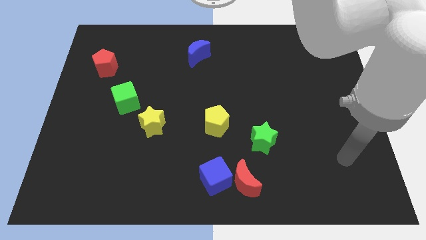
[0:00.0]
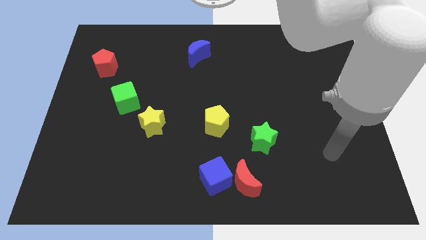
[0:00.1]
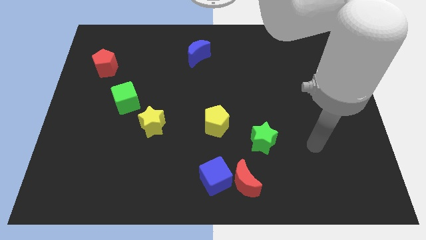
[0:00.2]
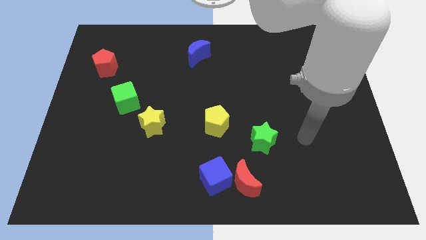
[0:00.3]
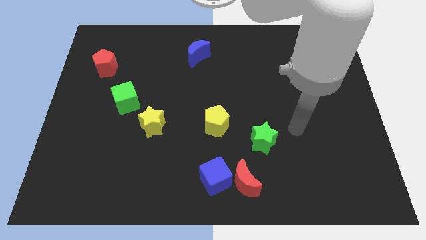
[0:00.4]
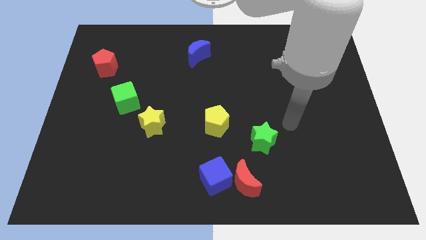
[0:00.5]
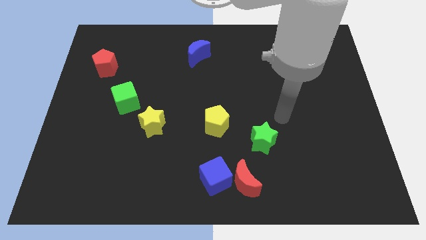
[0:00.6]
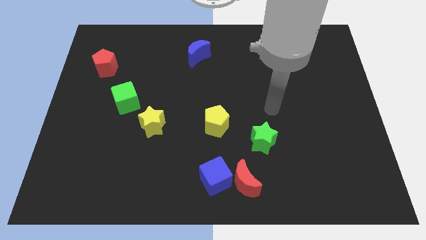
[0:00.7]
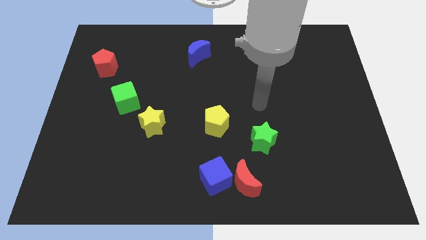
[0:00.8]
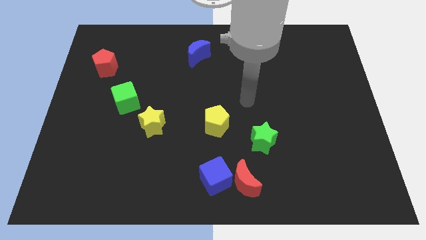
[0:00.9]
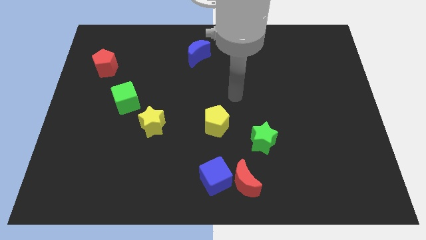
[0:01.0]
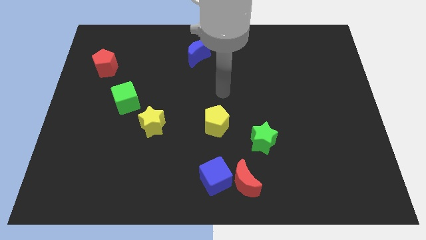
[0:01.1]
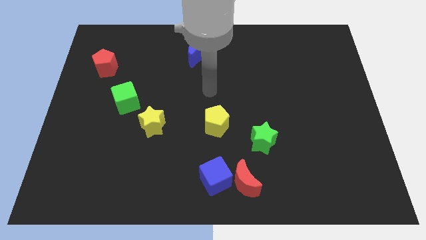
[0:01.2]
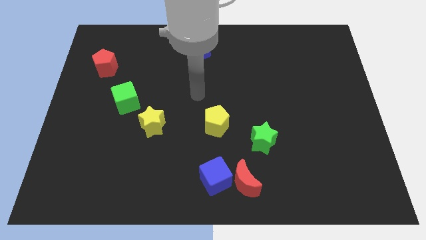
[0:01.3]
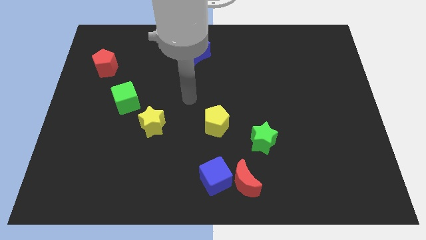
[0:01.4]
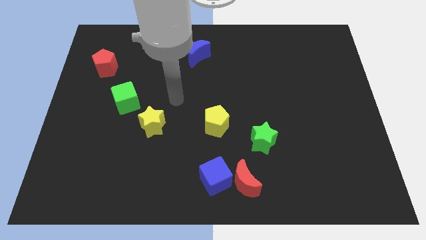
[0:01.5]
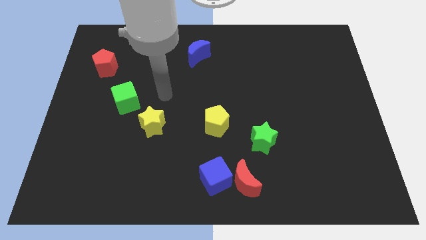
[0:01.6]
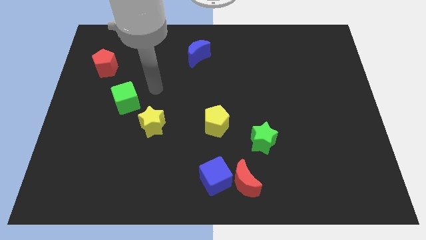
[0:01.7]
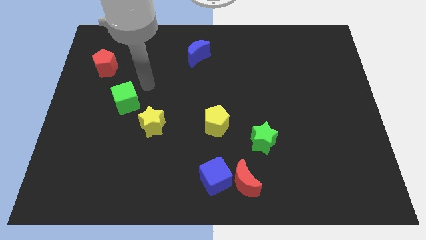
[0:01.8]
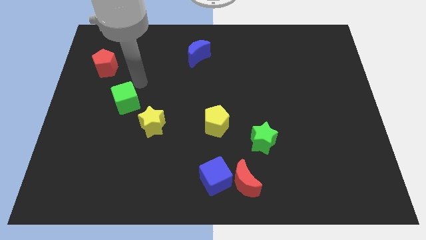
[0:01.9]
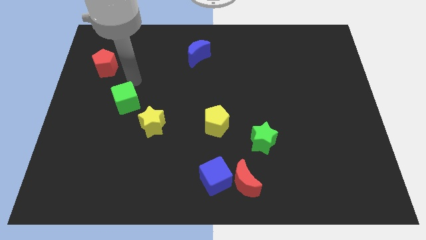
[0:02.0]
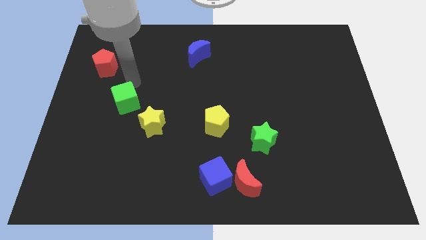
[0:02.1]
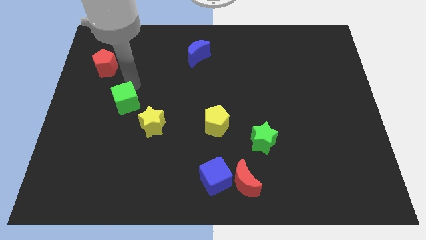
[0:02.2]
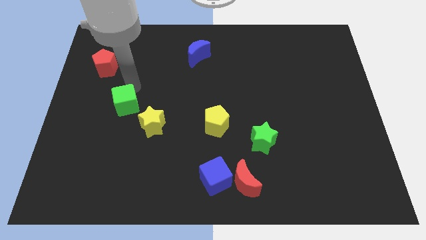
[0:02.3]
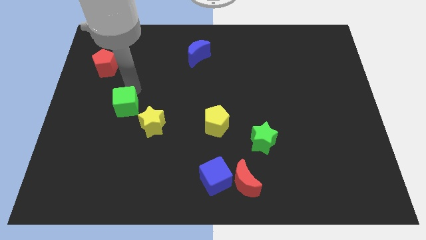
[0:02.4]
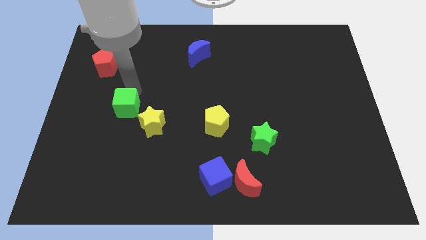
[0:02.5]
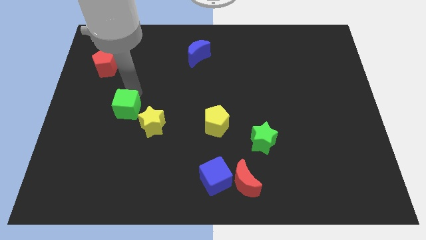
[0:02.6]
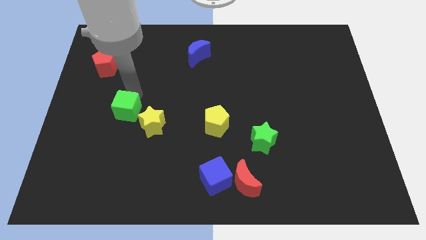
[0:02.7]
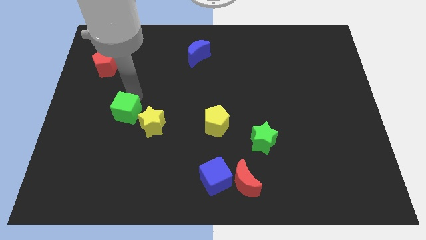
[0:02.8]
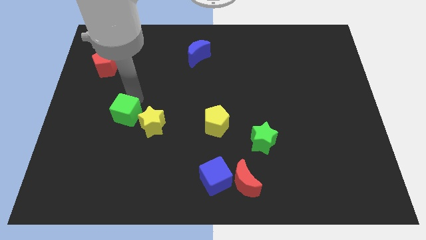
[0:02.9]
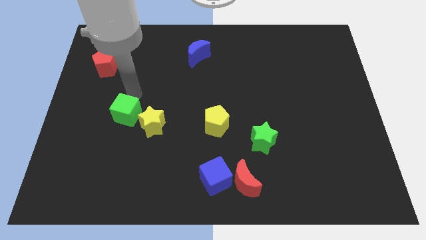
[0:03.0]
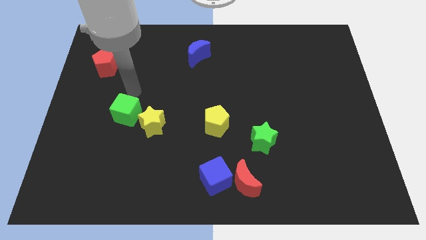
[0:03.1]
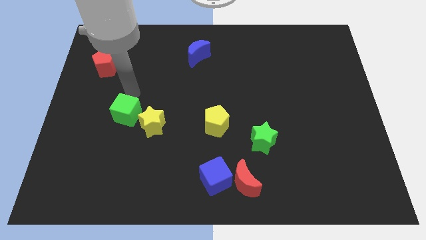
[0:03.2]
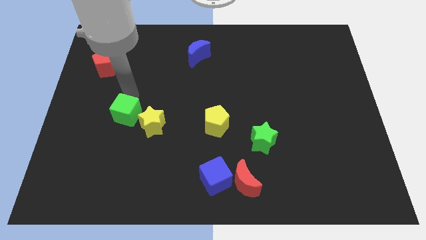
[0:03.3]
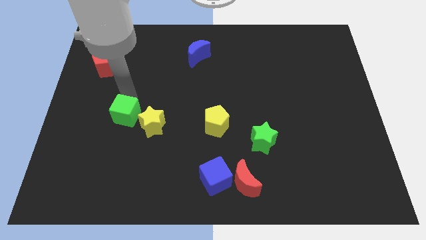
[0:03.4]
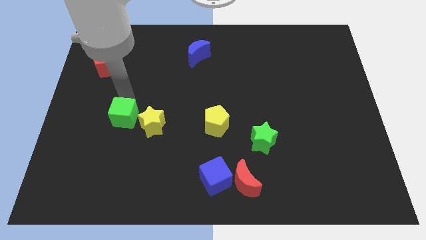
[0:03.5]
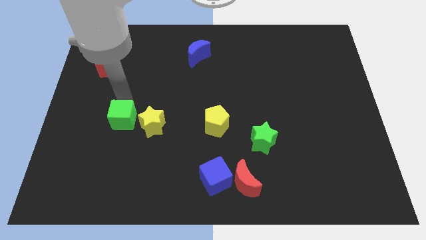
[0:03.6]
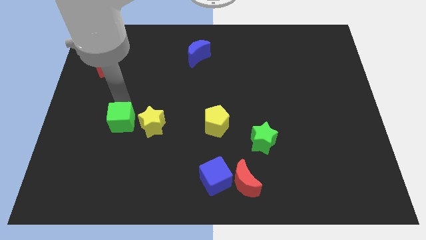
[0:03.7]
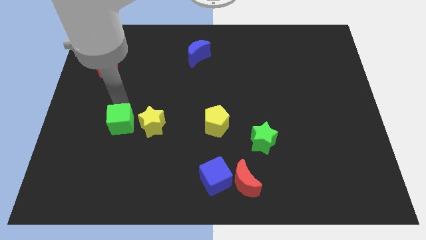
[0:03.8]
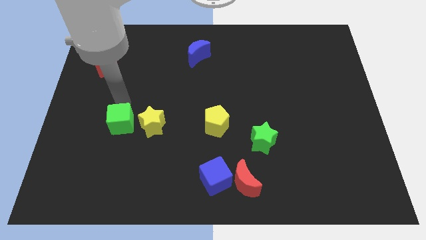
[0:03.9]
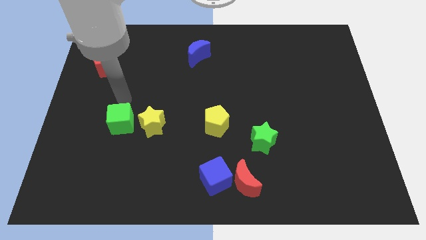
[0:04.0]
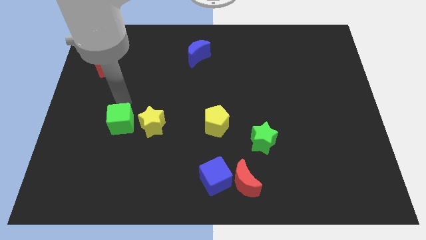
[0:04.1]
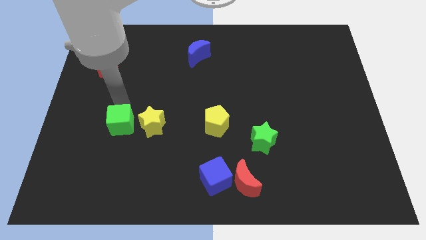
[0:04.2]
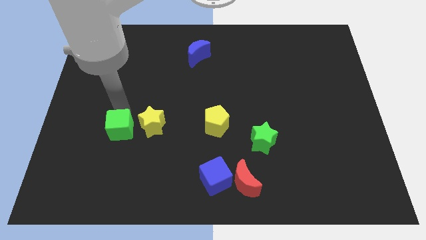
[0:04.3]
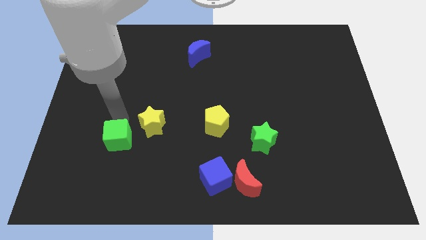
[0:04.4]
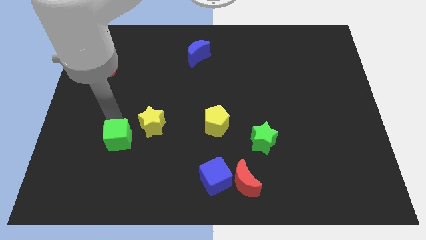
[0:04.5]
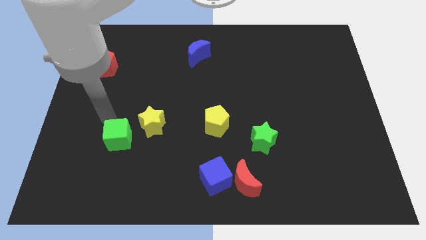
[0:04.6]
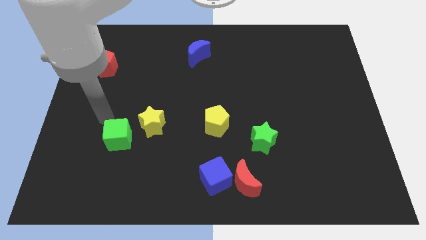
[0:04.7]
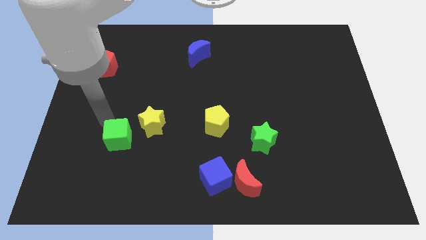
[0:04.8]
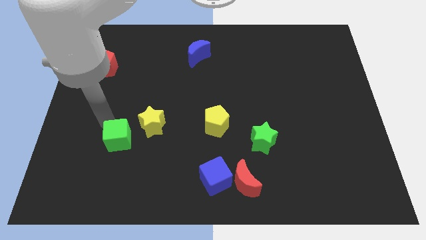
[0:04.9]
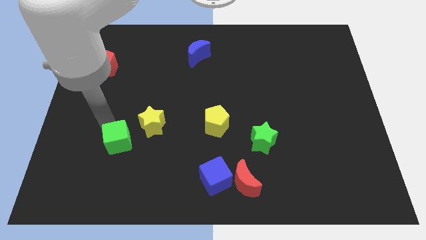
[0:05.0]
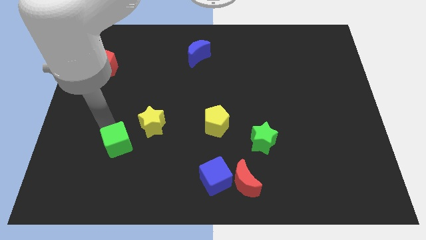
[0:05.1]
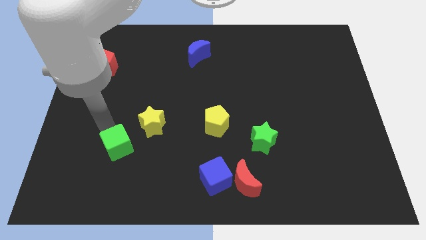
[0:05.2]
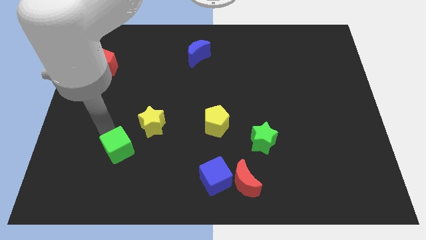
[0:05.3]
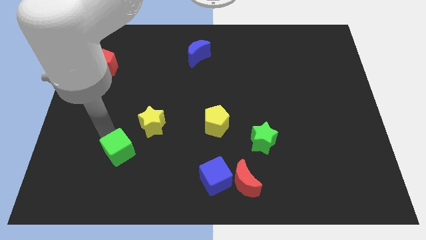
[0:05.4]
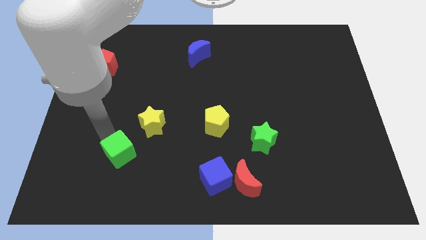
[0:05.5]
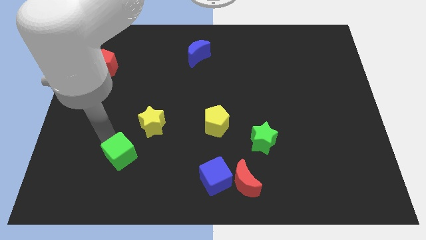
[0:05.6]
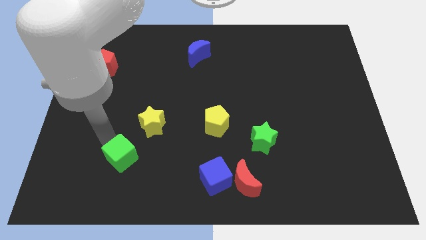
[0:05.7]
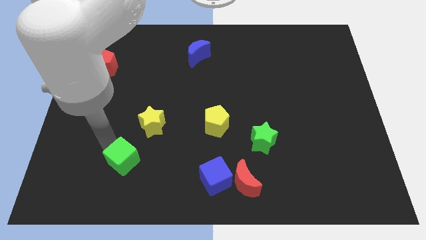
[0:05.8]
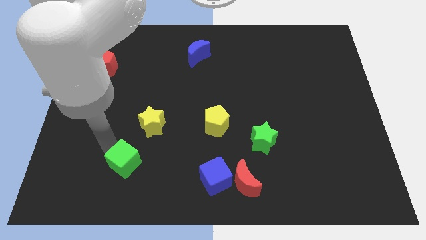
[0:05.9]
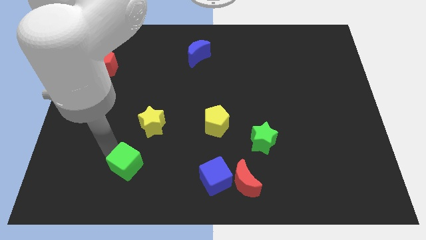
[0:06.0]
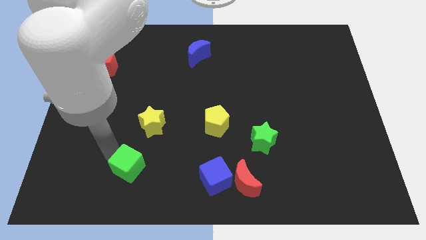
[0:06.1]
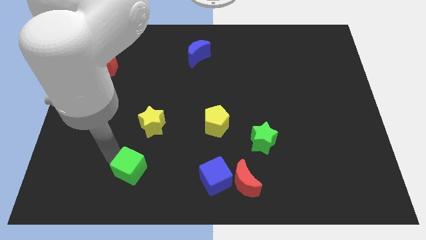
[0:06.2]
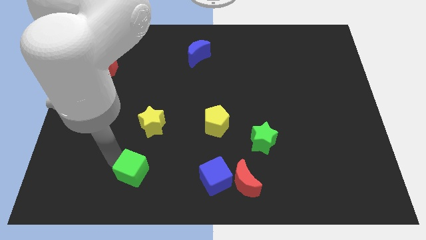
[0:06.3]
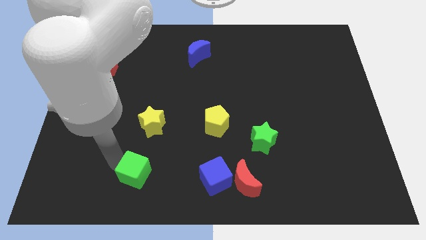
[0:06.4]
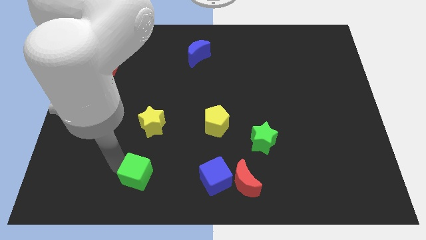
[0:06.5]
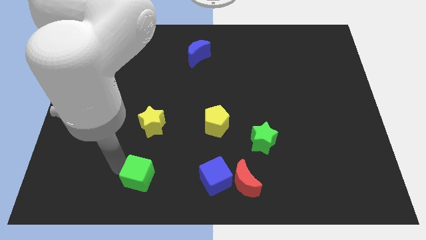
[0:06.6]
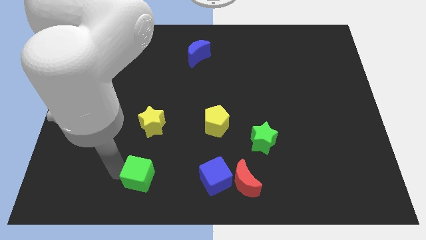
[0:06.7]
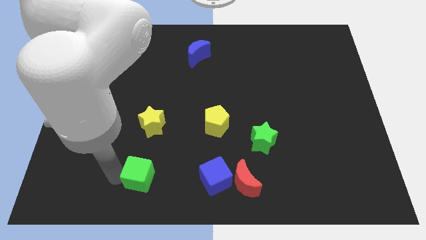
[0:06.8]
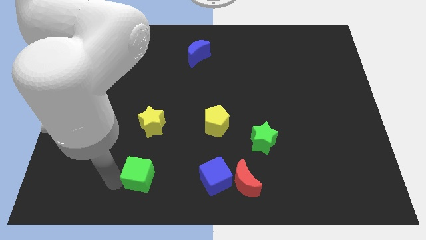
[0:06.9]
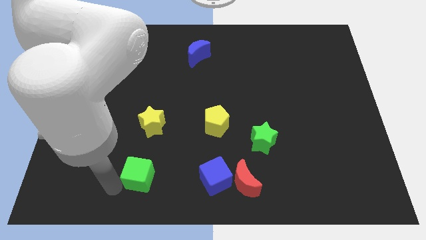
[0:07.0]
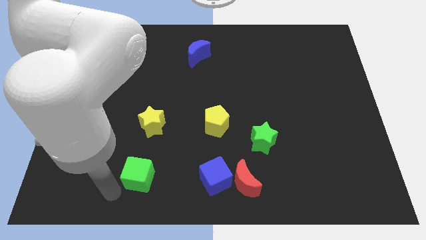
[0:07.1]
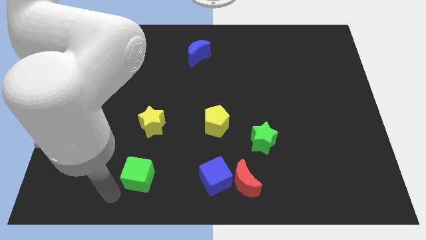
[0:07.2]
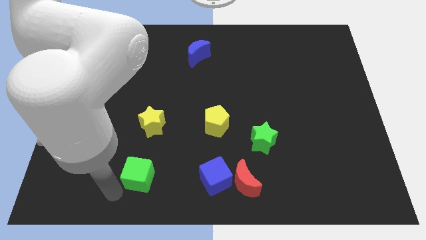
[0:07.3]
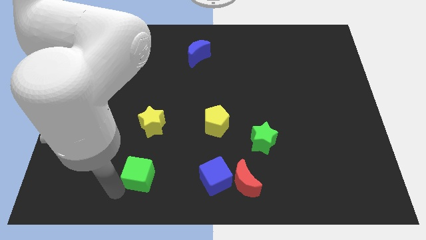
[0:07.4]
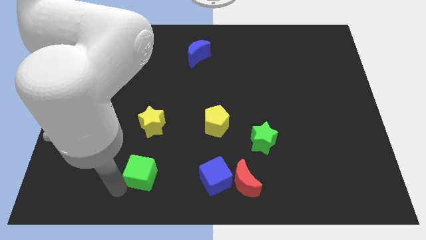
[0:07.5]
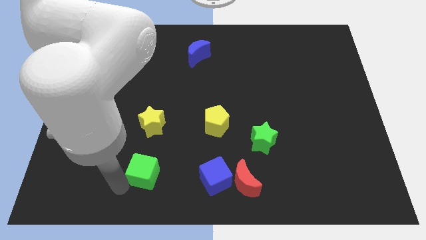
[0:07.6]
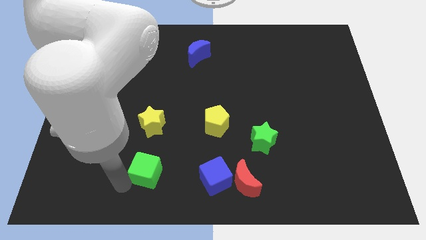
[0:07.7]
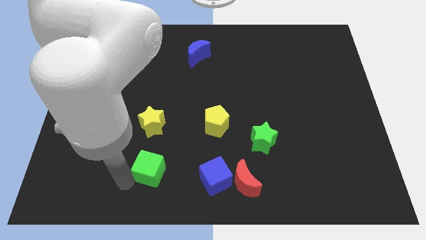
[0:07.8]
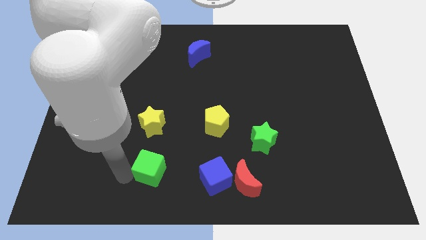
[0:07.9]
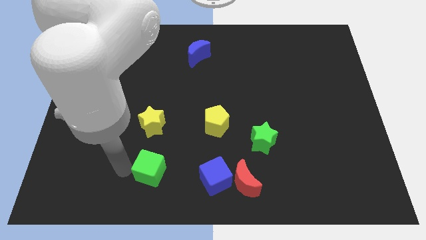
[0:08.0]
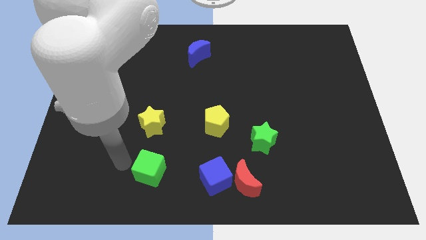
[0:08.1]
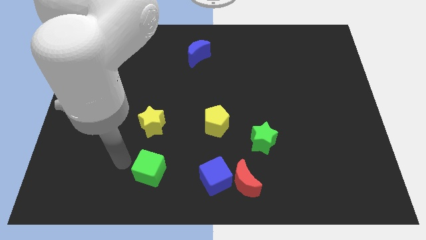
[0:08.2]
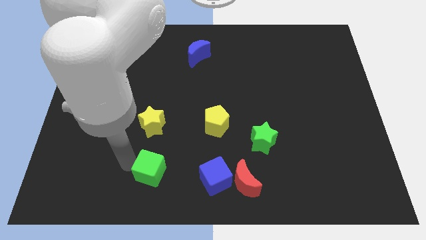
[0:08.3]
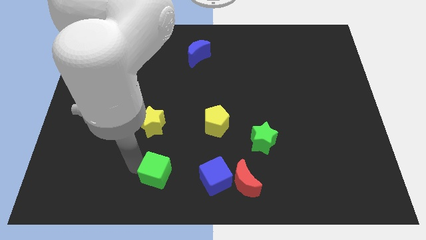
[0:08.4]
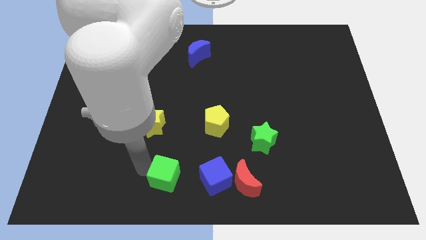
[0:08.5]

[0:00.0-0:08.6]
put the green cube to the bottom
